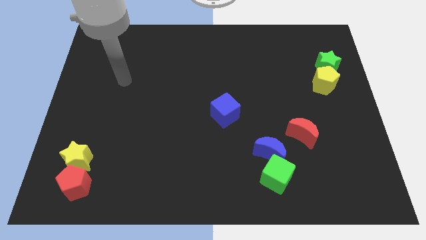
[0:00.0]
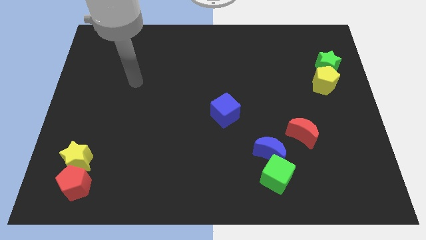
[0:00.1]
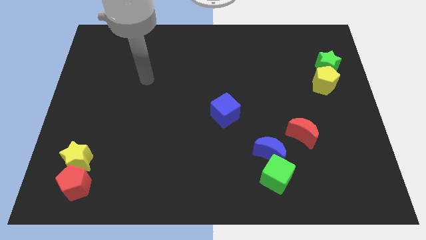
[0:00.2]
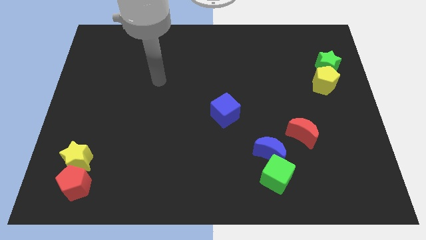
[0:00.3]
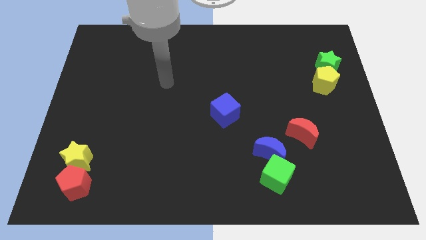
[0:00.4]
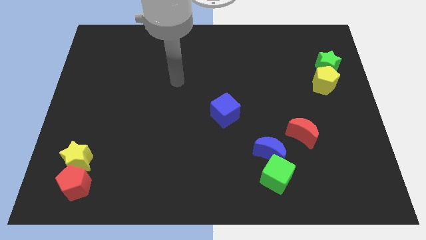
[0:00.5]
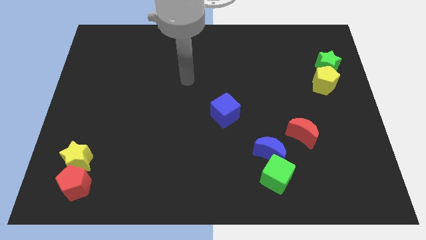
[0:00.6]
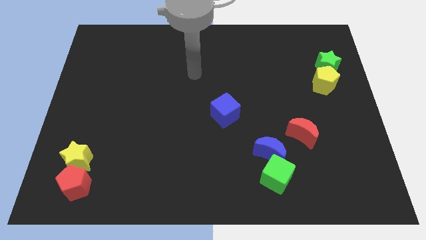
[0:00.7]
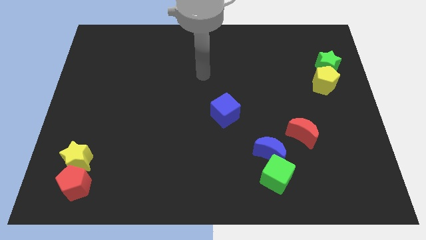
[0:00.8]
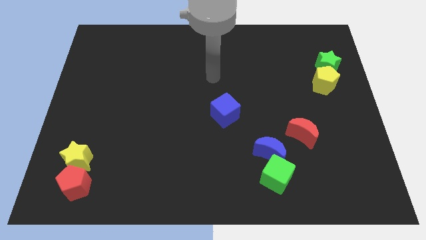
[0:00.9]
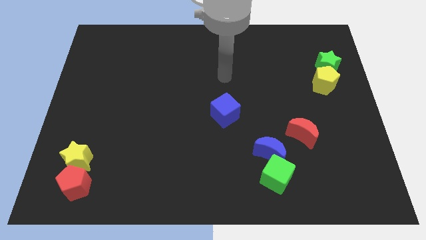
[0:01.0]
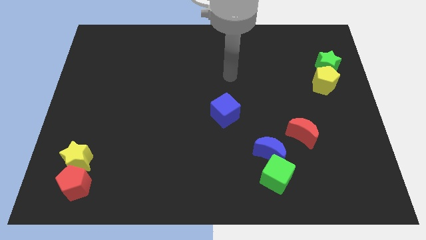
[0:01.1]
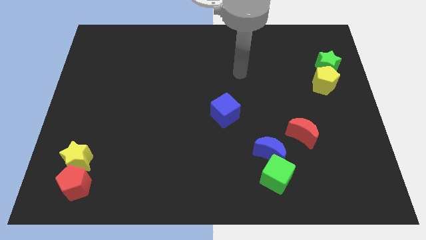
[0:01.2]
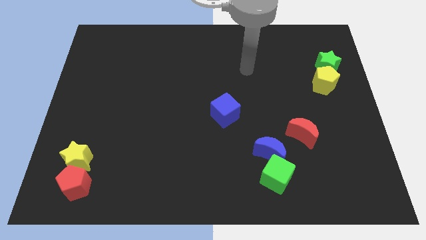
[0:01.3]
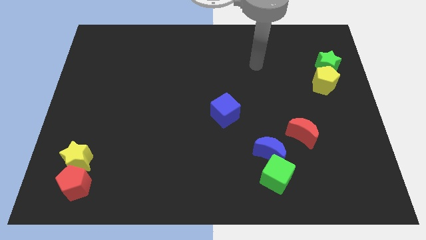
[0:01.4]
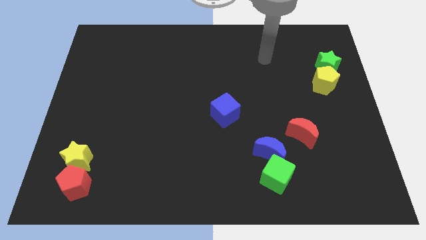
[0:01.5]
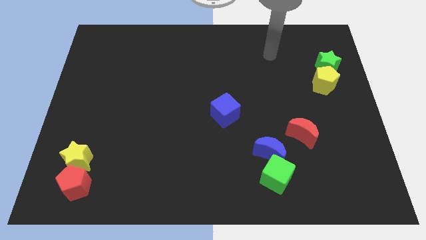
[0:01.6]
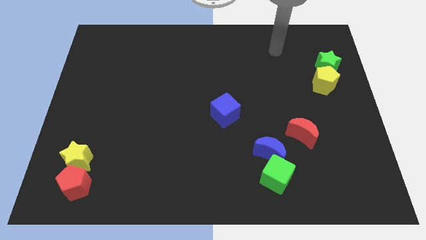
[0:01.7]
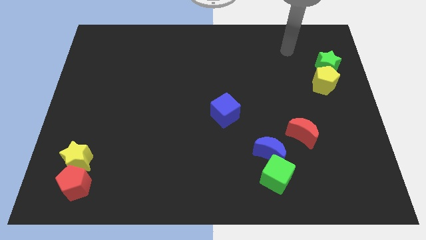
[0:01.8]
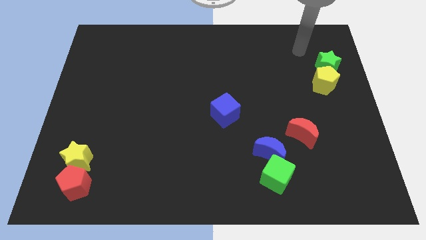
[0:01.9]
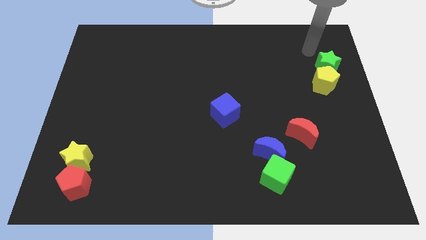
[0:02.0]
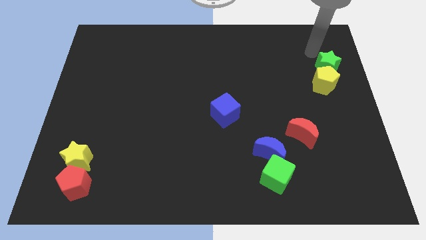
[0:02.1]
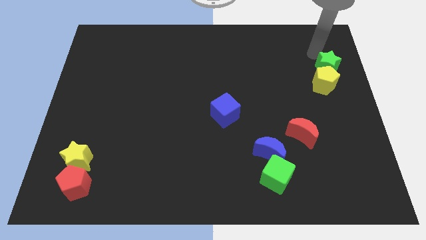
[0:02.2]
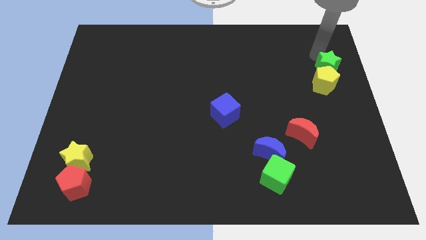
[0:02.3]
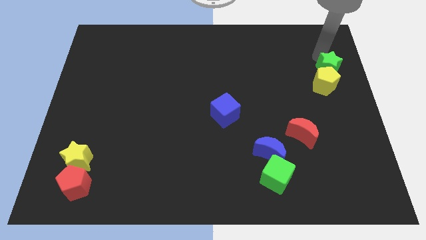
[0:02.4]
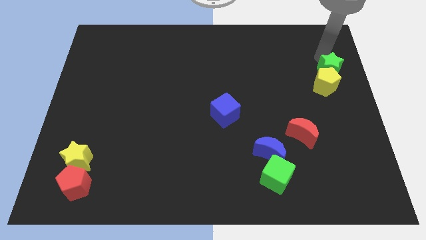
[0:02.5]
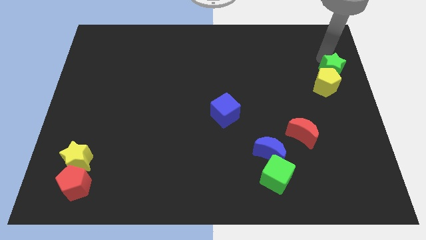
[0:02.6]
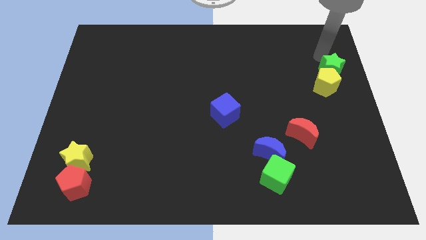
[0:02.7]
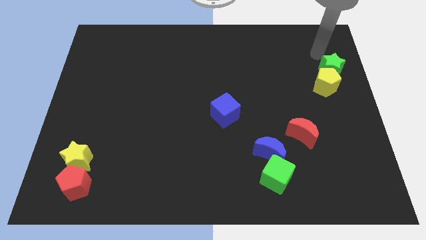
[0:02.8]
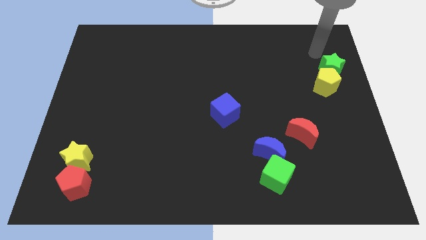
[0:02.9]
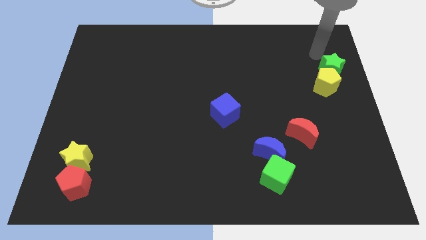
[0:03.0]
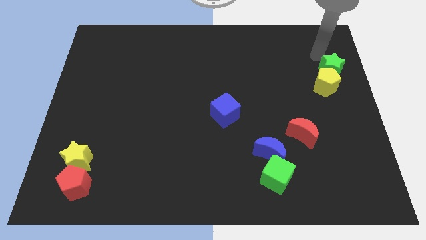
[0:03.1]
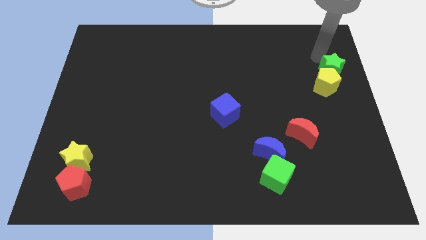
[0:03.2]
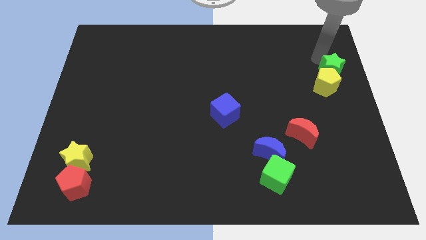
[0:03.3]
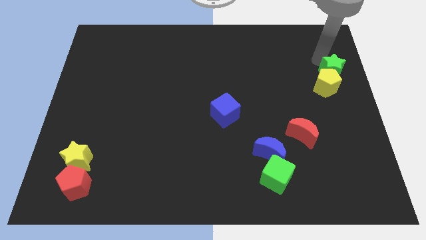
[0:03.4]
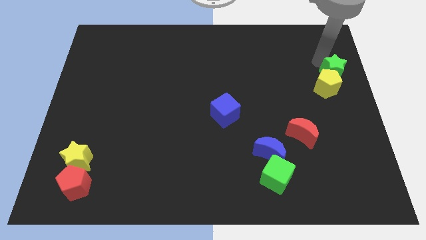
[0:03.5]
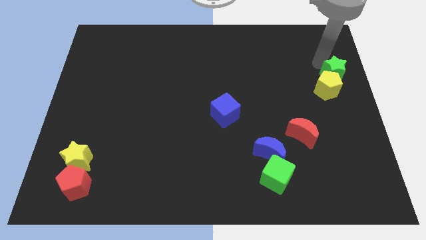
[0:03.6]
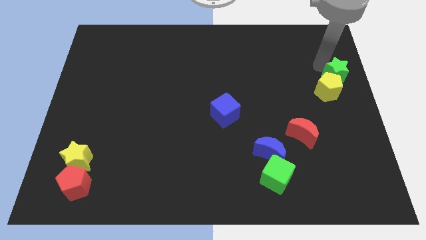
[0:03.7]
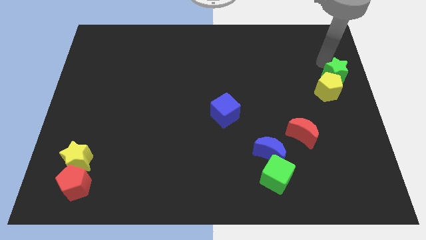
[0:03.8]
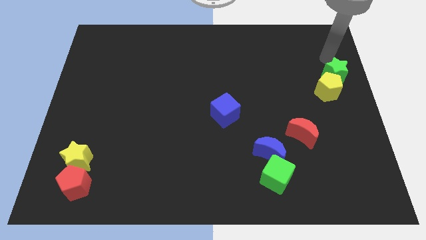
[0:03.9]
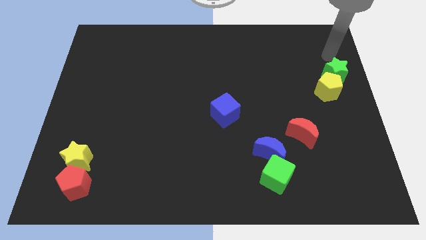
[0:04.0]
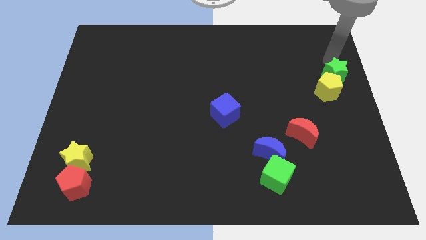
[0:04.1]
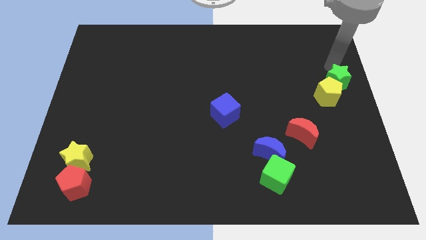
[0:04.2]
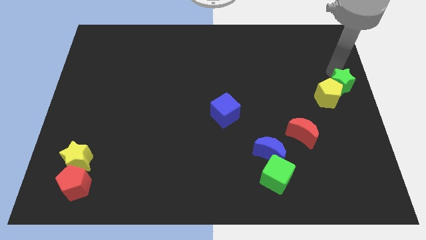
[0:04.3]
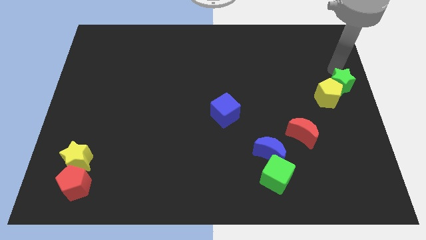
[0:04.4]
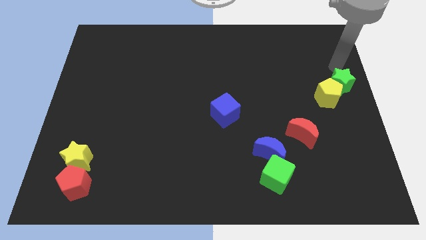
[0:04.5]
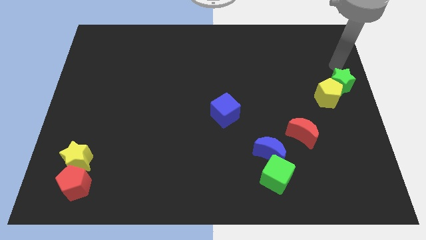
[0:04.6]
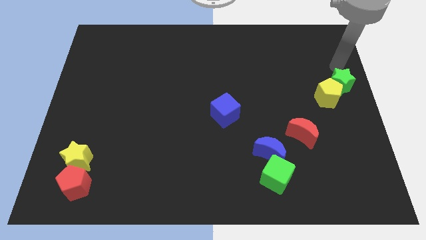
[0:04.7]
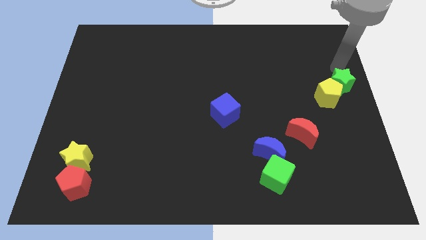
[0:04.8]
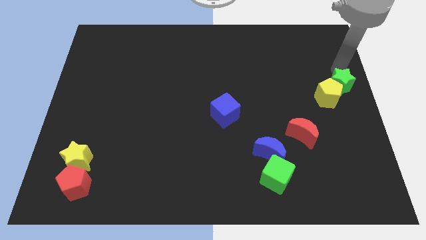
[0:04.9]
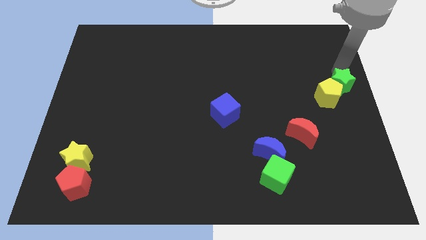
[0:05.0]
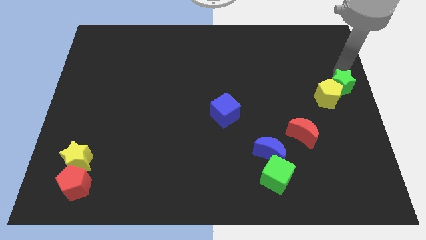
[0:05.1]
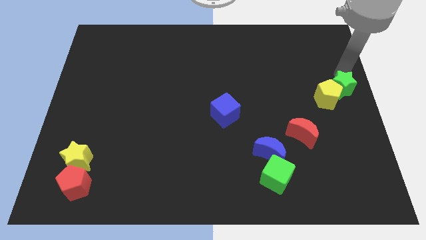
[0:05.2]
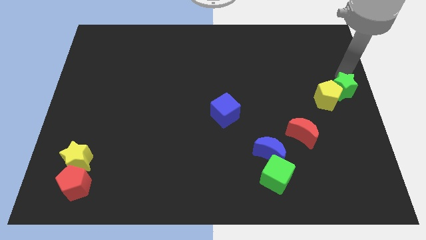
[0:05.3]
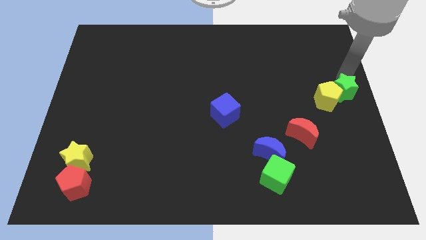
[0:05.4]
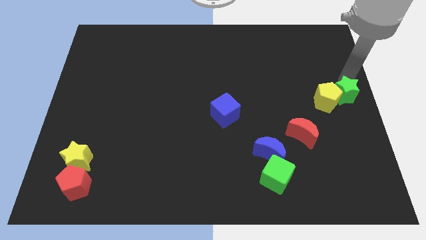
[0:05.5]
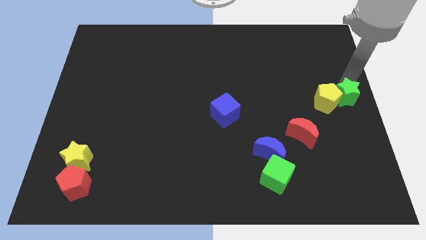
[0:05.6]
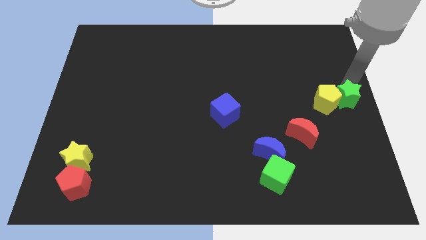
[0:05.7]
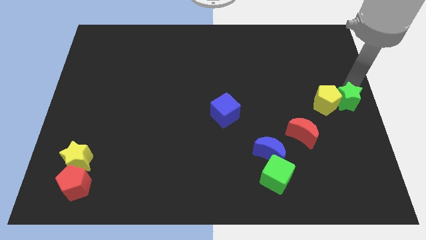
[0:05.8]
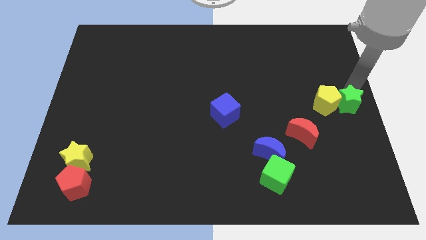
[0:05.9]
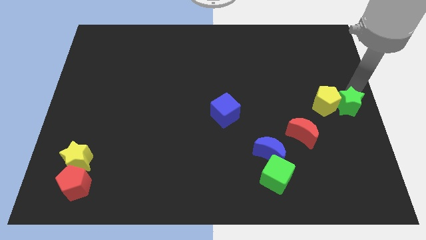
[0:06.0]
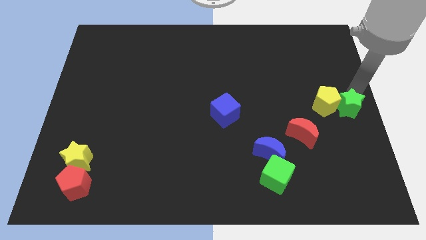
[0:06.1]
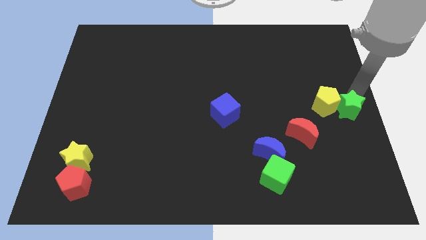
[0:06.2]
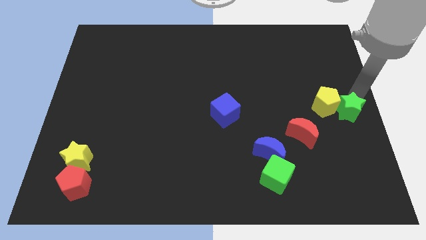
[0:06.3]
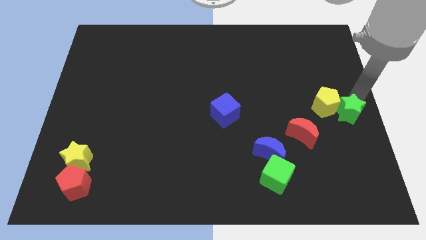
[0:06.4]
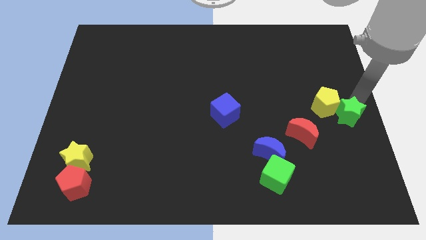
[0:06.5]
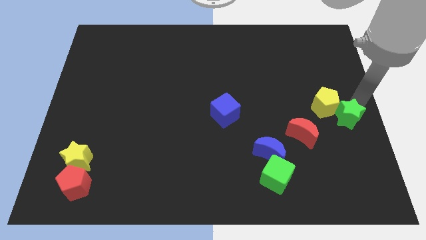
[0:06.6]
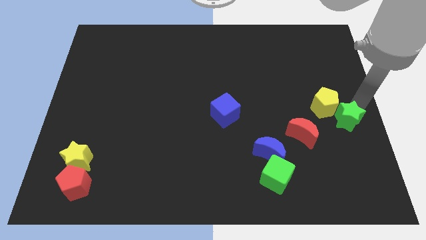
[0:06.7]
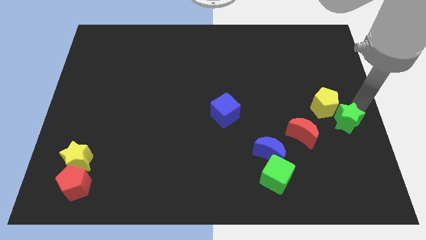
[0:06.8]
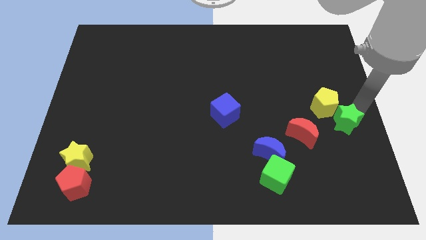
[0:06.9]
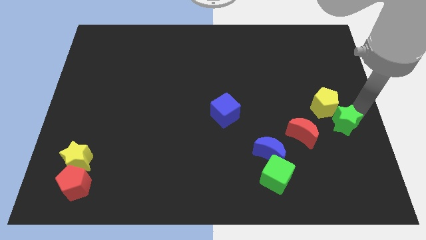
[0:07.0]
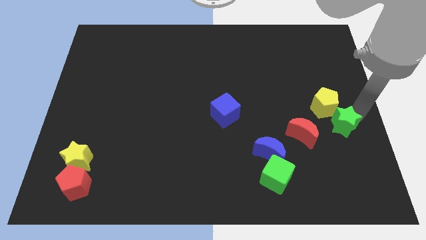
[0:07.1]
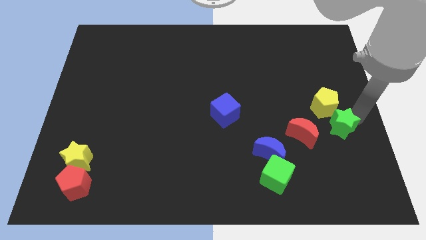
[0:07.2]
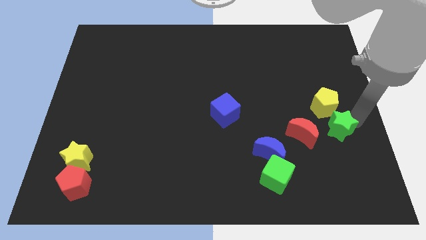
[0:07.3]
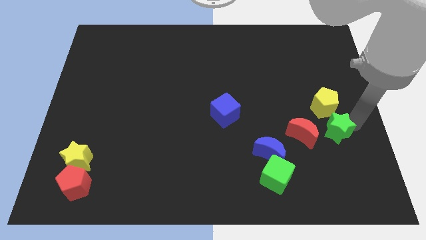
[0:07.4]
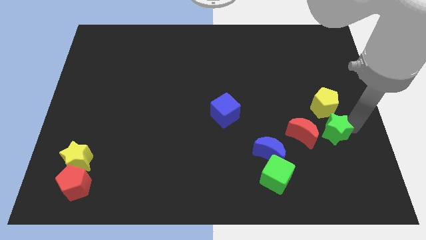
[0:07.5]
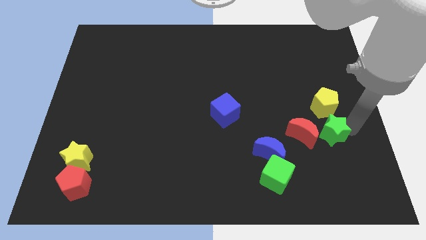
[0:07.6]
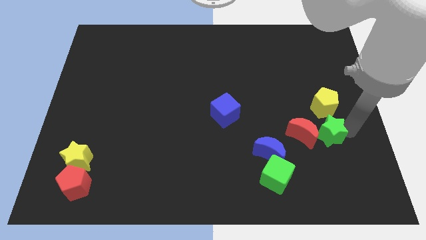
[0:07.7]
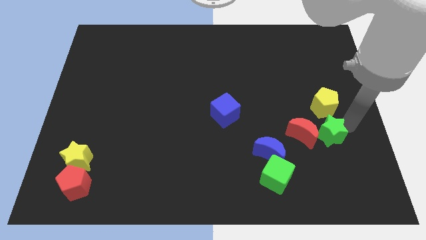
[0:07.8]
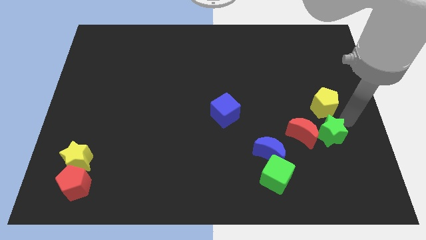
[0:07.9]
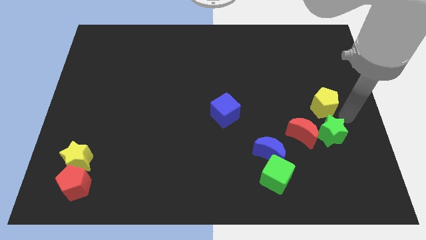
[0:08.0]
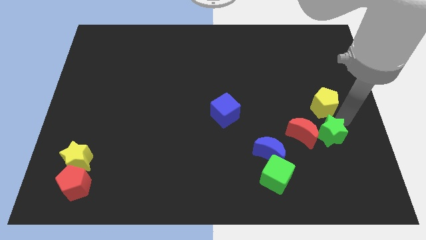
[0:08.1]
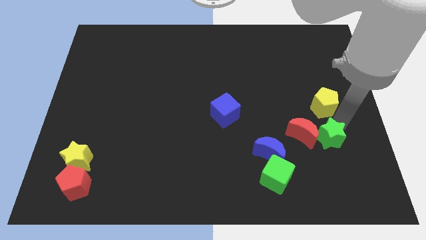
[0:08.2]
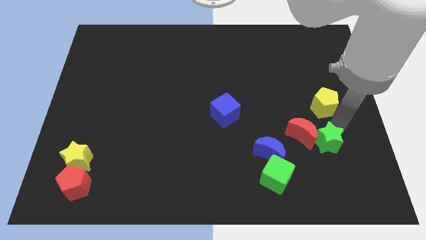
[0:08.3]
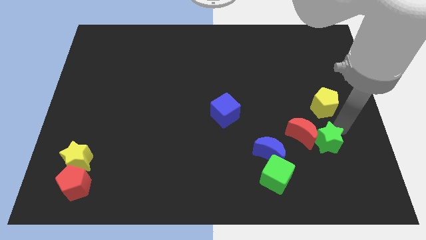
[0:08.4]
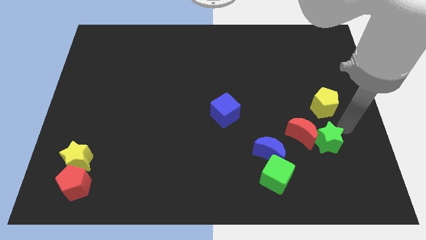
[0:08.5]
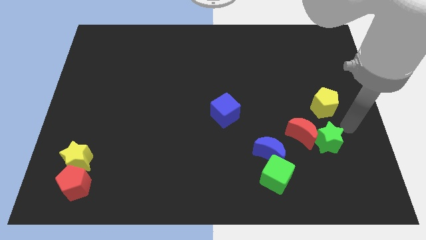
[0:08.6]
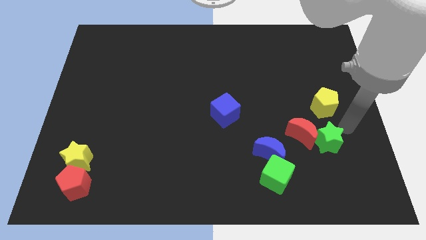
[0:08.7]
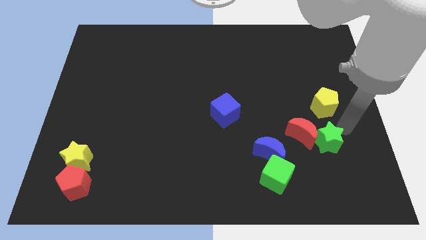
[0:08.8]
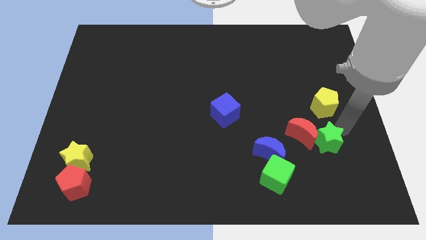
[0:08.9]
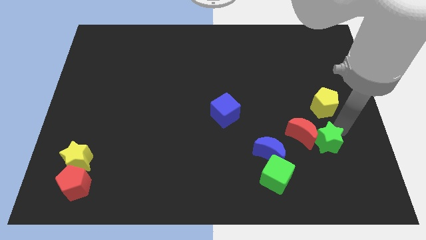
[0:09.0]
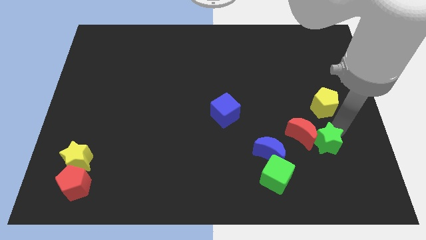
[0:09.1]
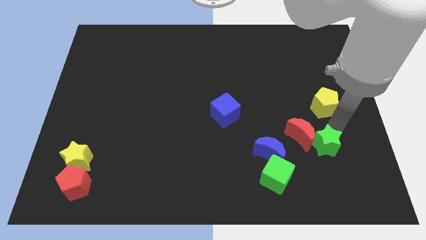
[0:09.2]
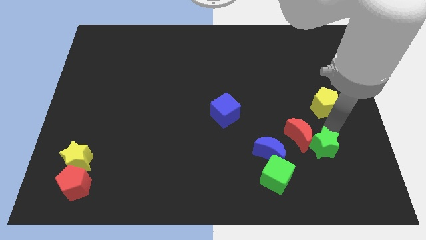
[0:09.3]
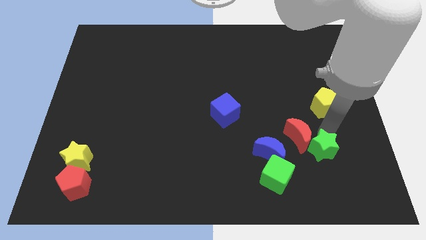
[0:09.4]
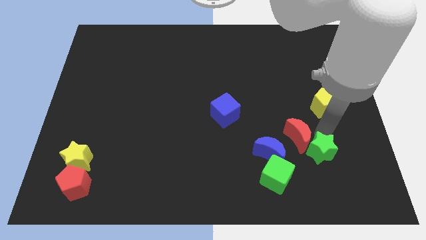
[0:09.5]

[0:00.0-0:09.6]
move the green star below the red moon
